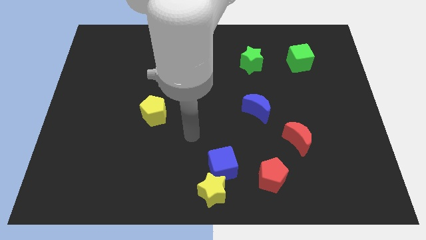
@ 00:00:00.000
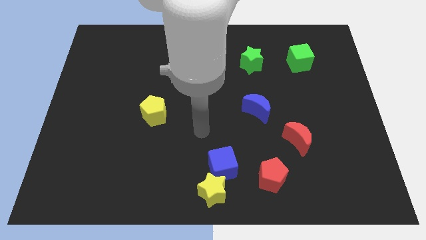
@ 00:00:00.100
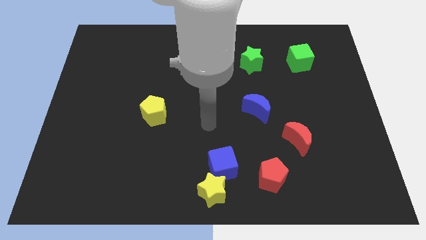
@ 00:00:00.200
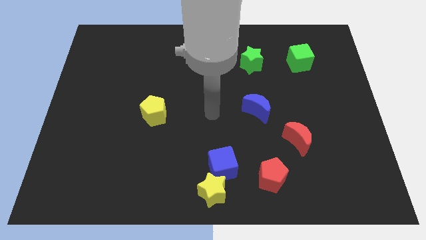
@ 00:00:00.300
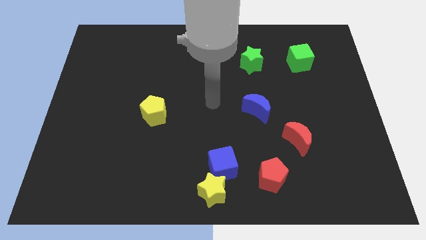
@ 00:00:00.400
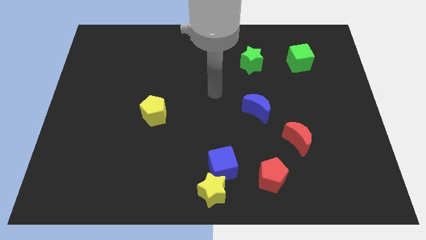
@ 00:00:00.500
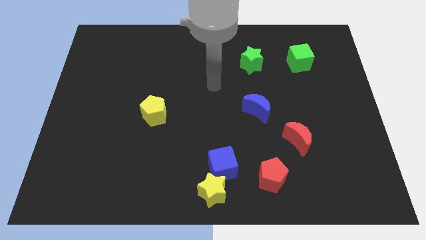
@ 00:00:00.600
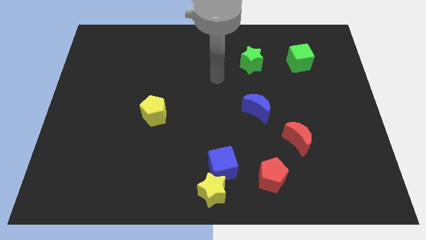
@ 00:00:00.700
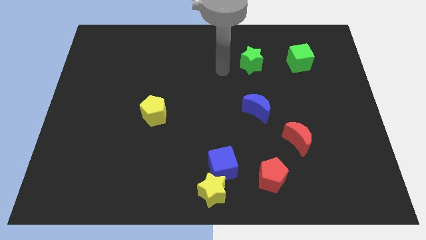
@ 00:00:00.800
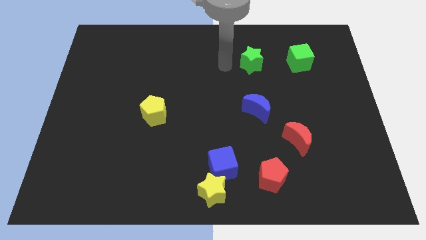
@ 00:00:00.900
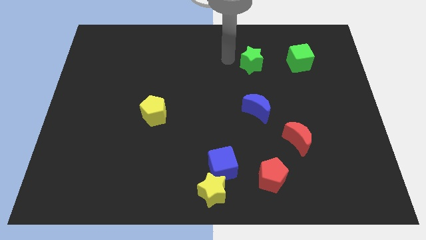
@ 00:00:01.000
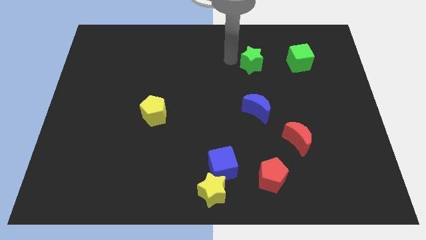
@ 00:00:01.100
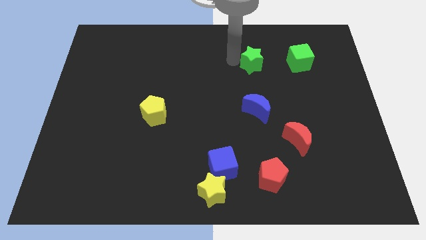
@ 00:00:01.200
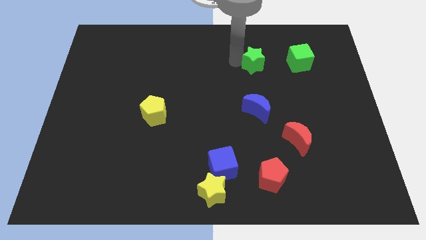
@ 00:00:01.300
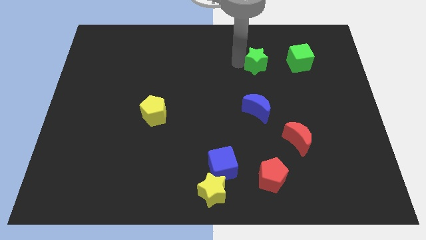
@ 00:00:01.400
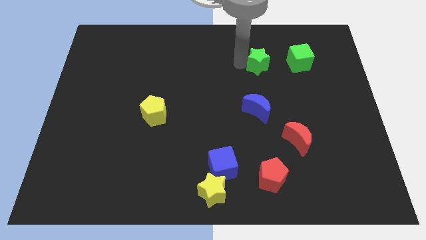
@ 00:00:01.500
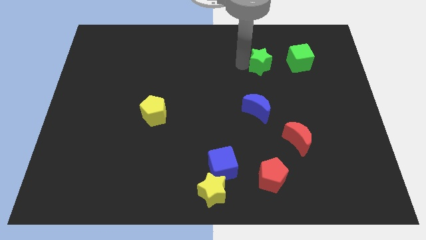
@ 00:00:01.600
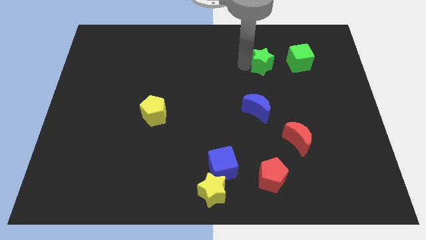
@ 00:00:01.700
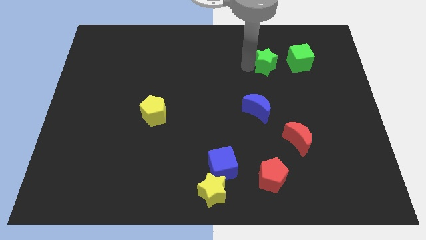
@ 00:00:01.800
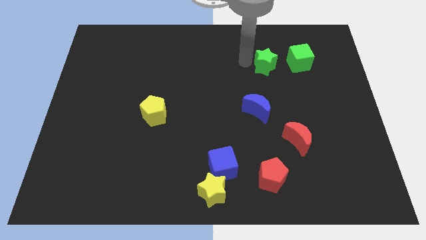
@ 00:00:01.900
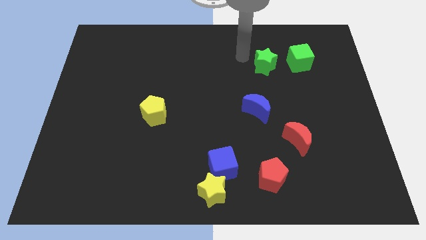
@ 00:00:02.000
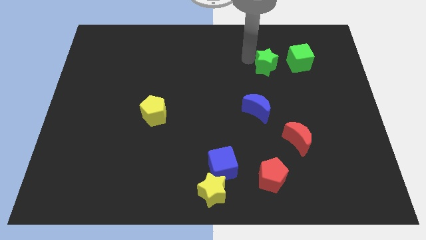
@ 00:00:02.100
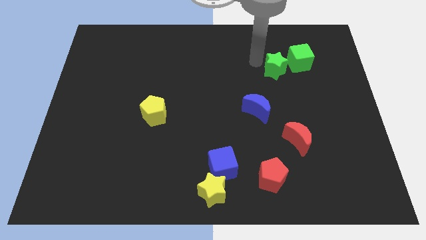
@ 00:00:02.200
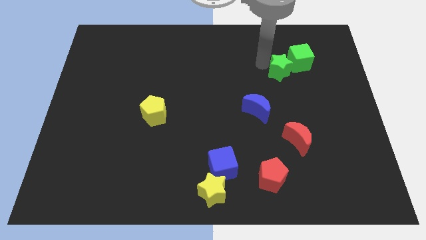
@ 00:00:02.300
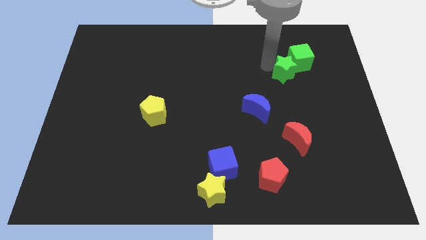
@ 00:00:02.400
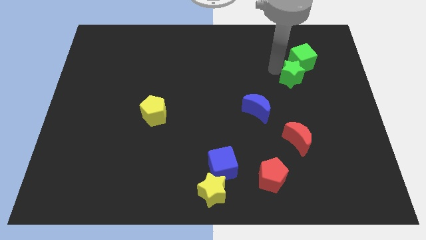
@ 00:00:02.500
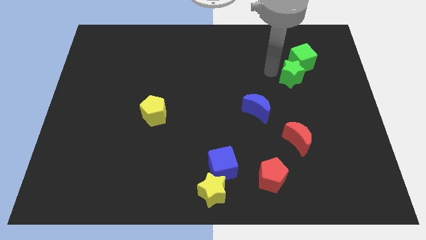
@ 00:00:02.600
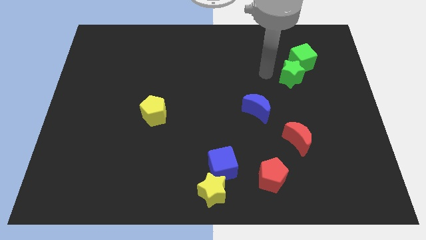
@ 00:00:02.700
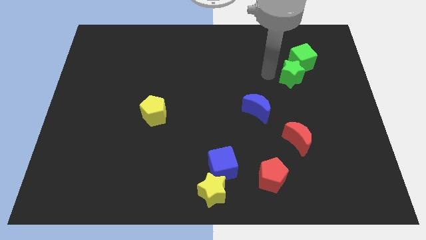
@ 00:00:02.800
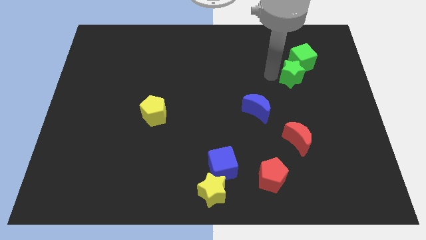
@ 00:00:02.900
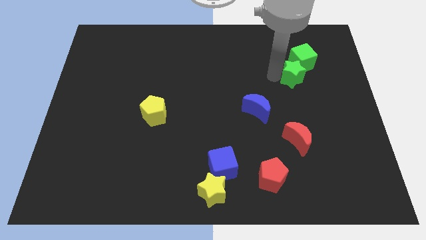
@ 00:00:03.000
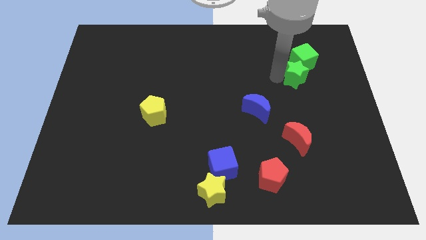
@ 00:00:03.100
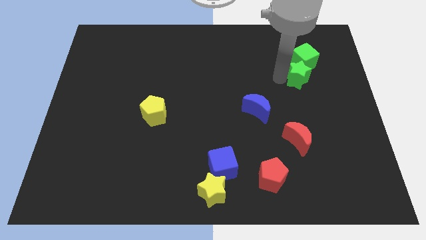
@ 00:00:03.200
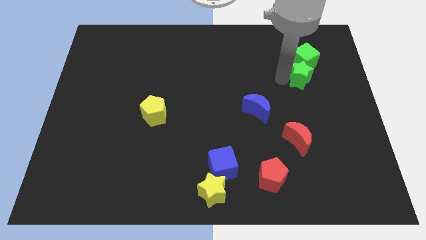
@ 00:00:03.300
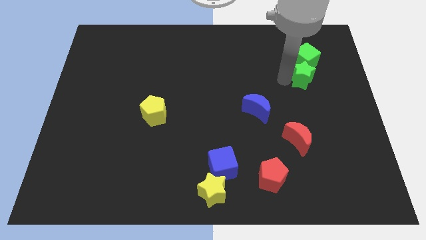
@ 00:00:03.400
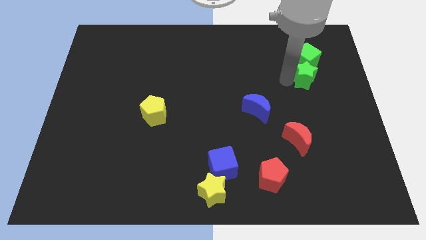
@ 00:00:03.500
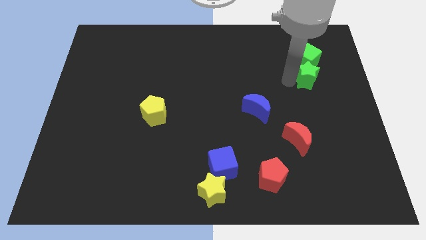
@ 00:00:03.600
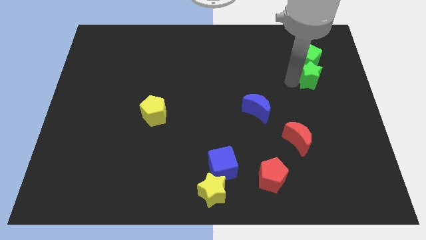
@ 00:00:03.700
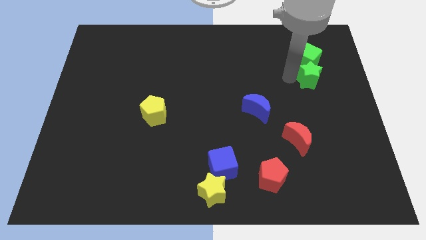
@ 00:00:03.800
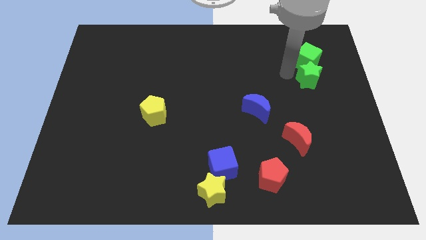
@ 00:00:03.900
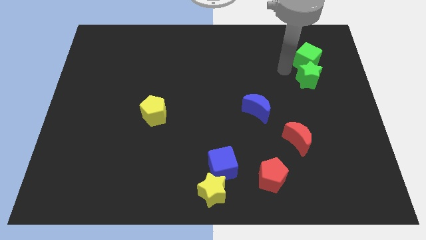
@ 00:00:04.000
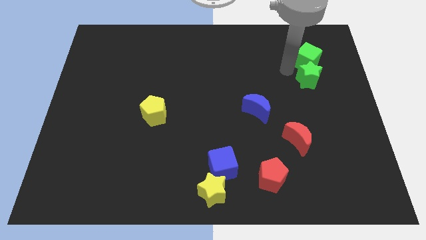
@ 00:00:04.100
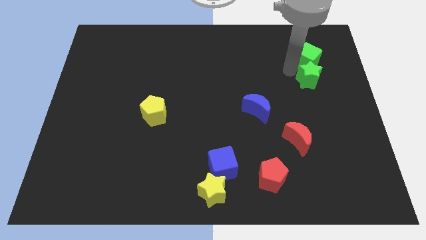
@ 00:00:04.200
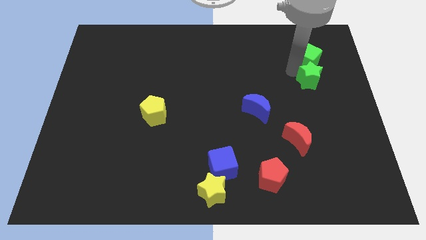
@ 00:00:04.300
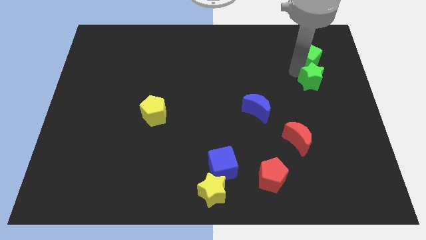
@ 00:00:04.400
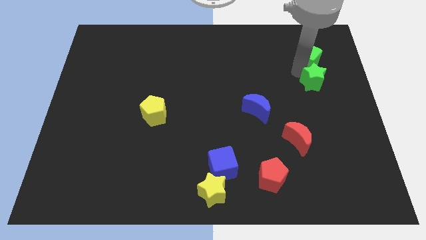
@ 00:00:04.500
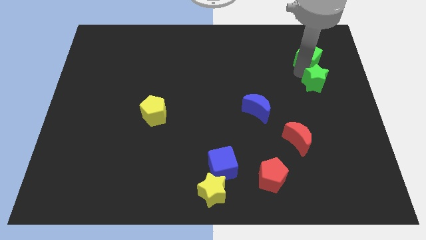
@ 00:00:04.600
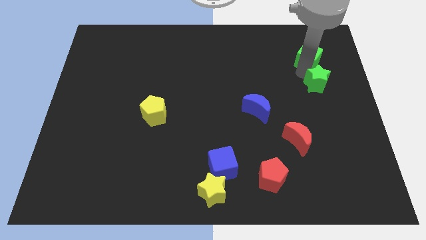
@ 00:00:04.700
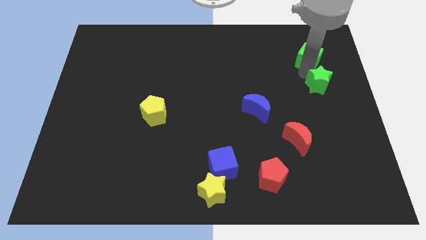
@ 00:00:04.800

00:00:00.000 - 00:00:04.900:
put the green star to the right side

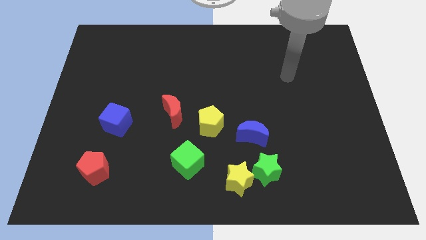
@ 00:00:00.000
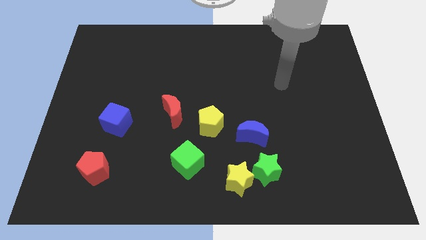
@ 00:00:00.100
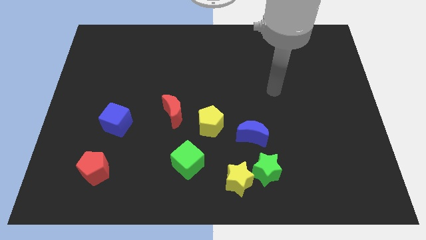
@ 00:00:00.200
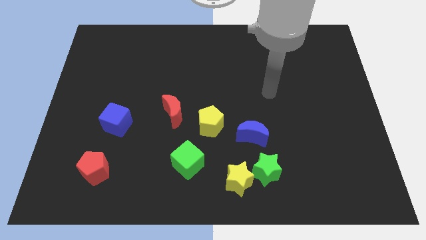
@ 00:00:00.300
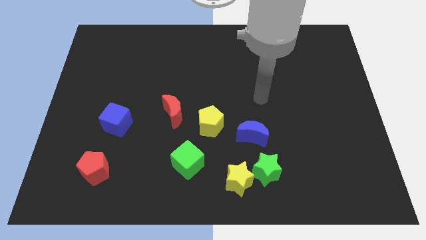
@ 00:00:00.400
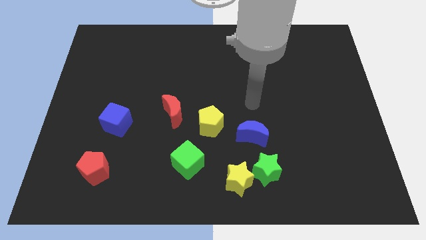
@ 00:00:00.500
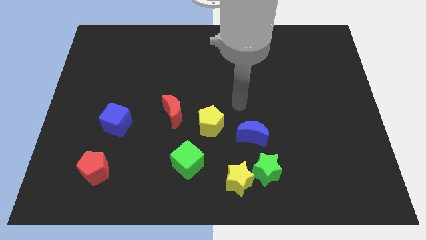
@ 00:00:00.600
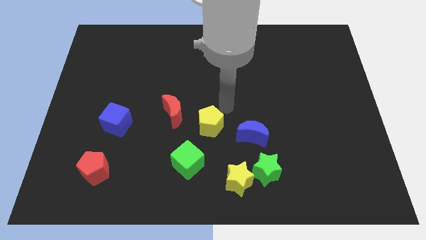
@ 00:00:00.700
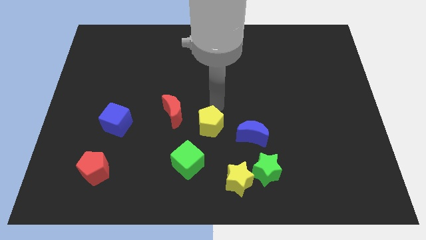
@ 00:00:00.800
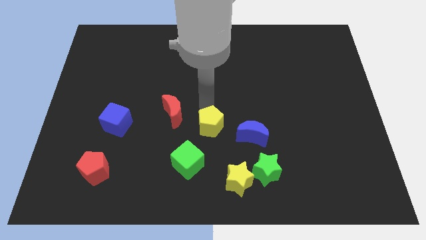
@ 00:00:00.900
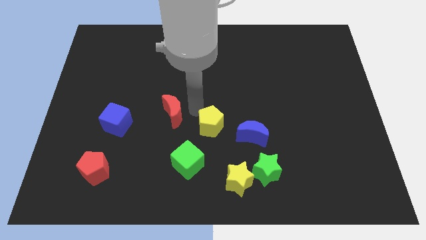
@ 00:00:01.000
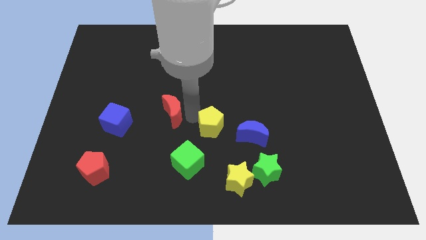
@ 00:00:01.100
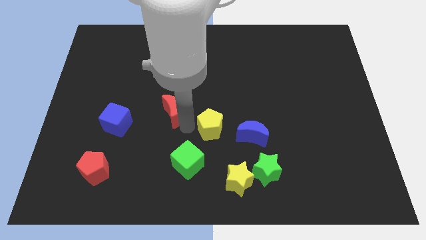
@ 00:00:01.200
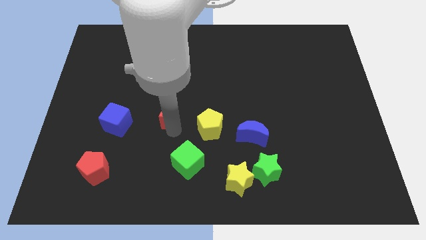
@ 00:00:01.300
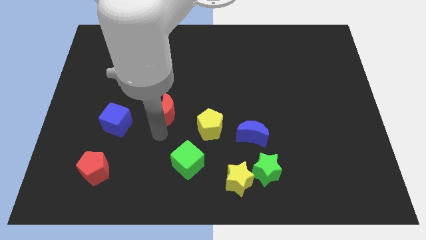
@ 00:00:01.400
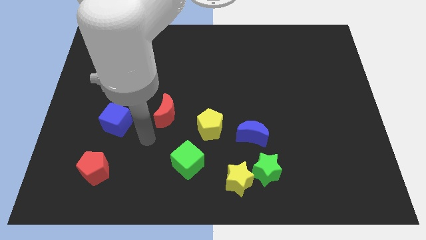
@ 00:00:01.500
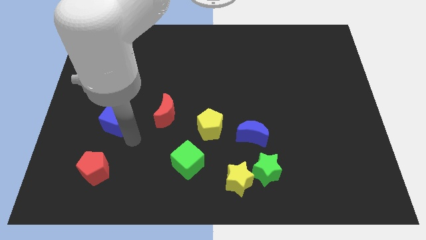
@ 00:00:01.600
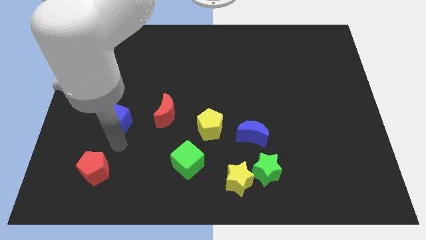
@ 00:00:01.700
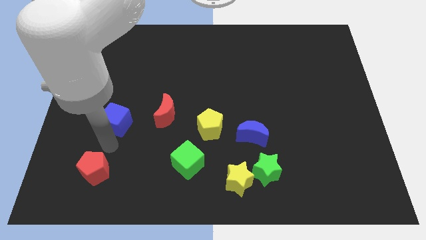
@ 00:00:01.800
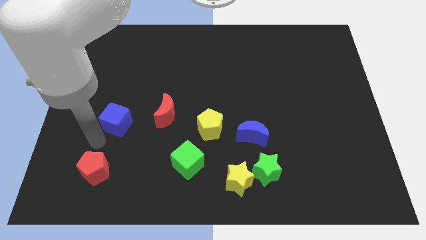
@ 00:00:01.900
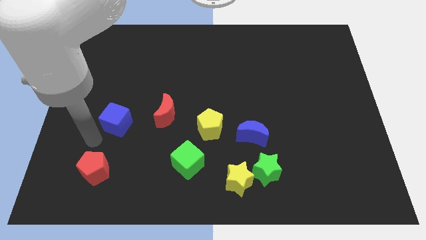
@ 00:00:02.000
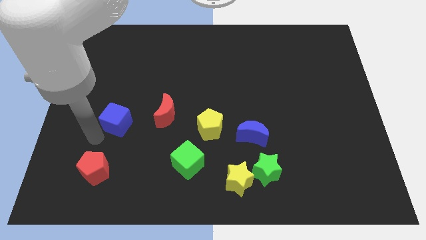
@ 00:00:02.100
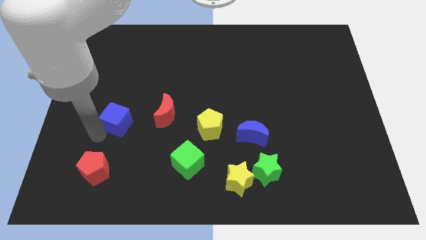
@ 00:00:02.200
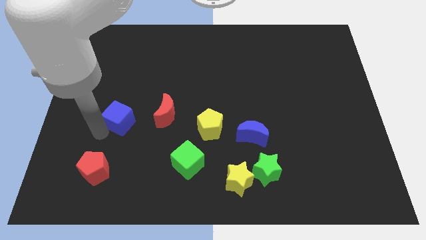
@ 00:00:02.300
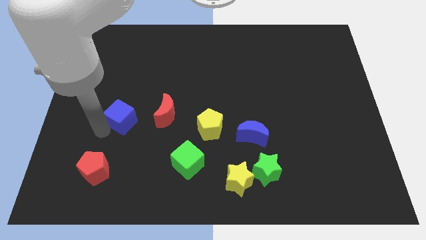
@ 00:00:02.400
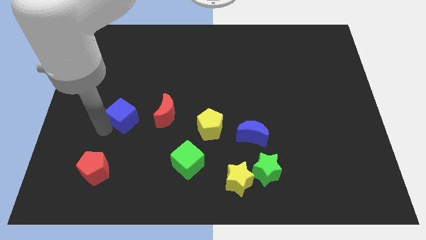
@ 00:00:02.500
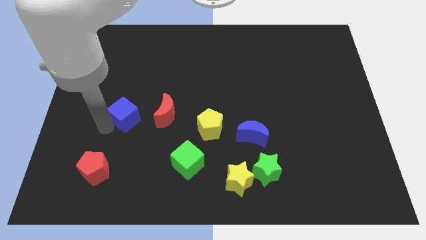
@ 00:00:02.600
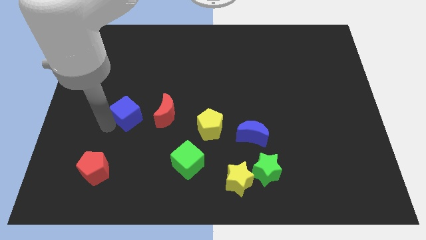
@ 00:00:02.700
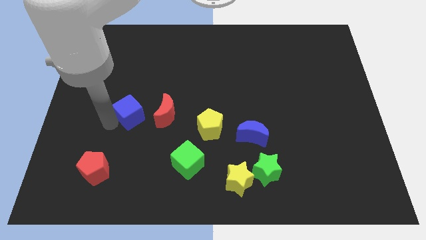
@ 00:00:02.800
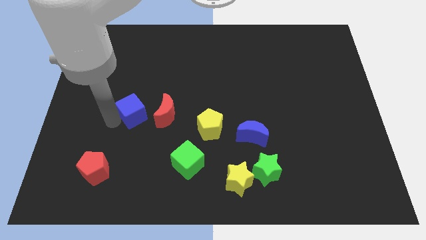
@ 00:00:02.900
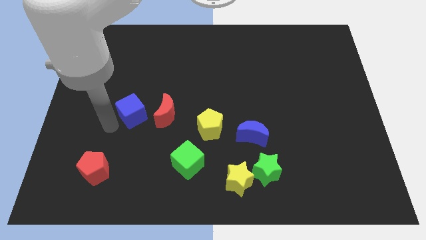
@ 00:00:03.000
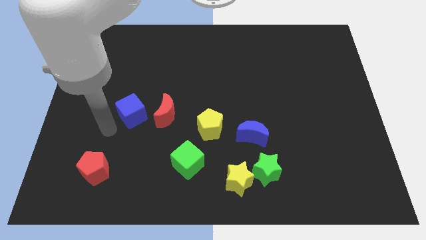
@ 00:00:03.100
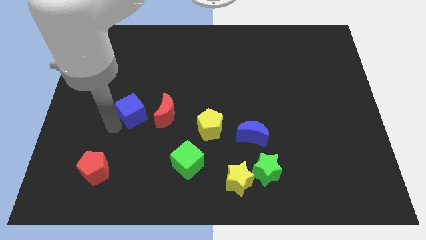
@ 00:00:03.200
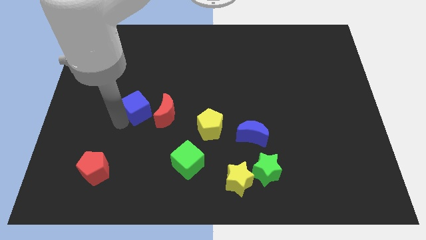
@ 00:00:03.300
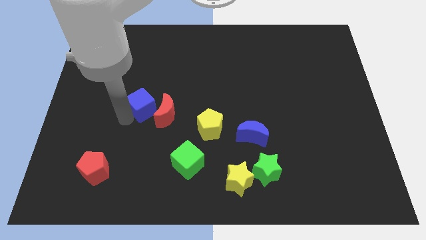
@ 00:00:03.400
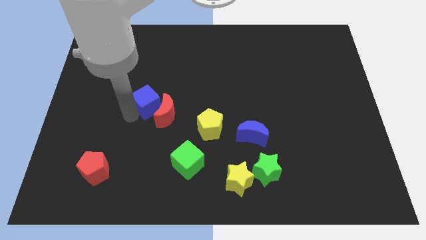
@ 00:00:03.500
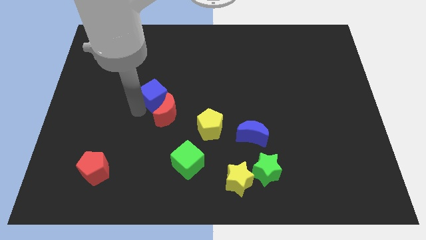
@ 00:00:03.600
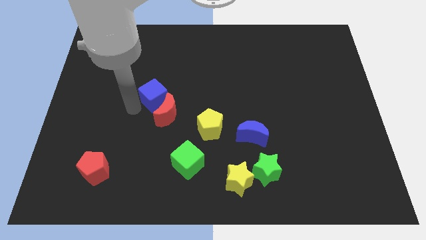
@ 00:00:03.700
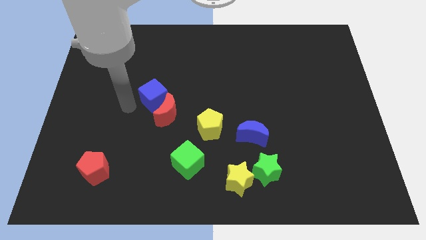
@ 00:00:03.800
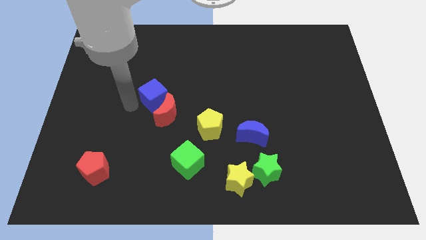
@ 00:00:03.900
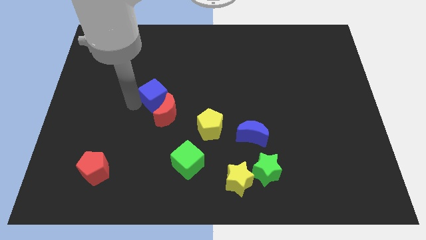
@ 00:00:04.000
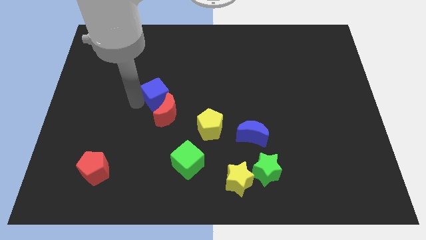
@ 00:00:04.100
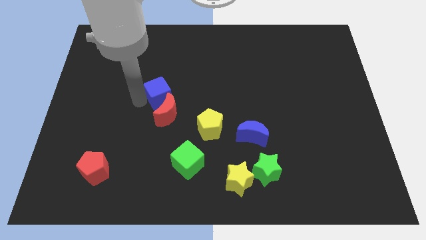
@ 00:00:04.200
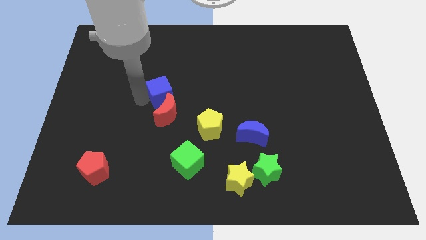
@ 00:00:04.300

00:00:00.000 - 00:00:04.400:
move the blue cube to the middle of the board
